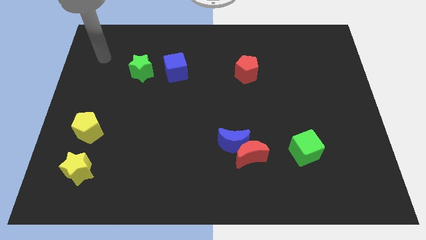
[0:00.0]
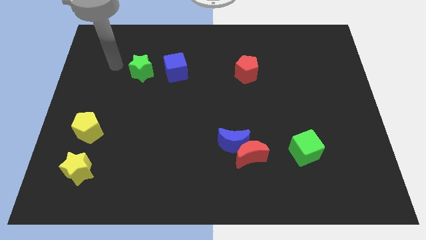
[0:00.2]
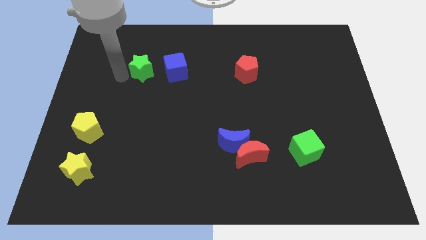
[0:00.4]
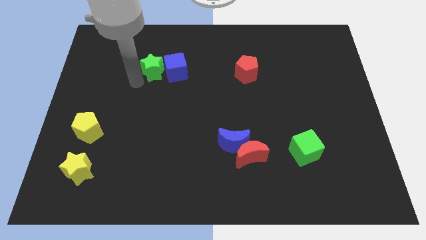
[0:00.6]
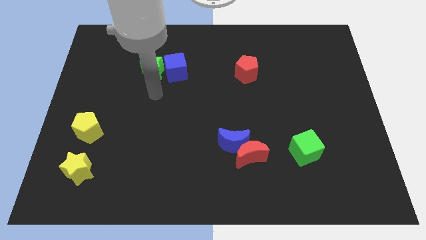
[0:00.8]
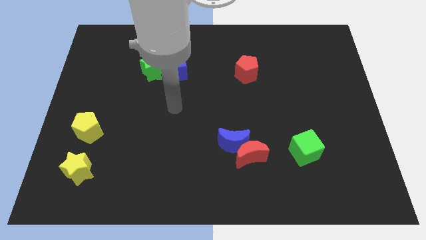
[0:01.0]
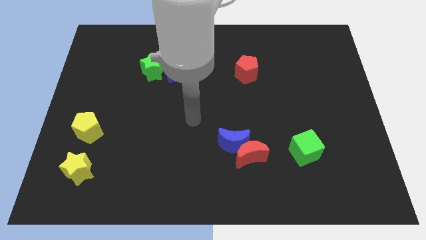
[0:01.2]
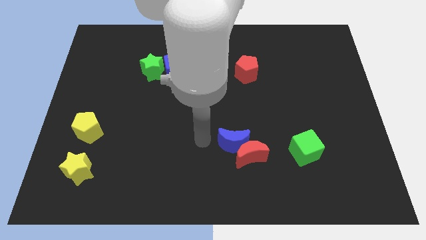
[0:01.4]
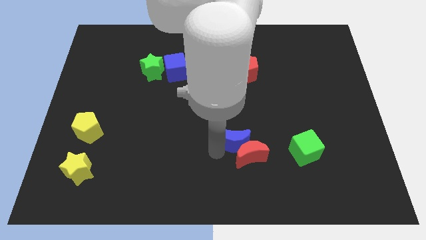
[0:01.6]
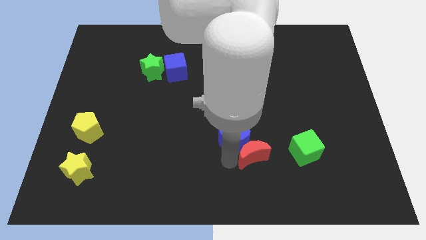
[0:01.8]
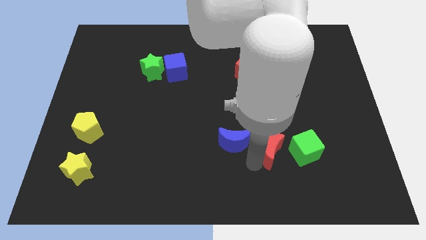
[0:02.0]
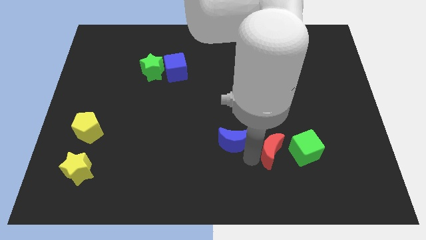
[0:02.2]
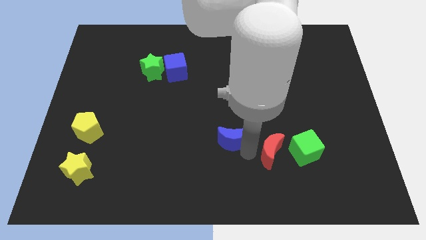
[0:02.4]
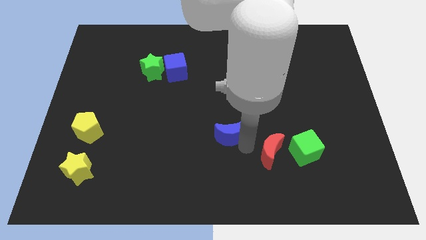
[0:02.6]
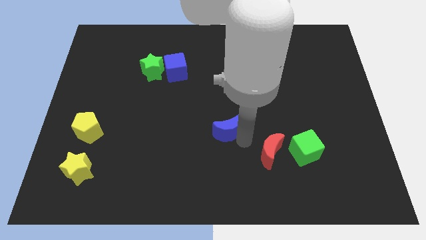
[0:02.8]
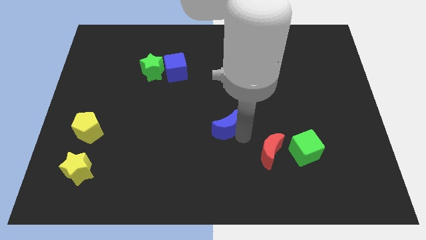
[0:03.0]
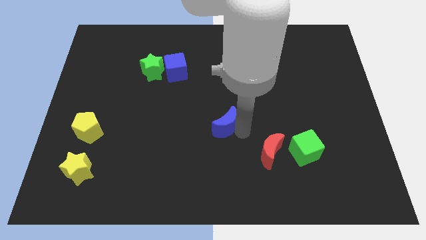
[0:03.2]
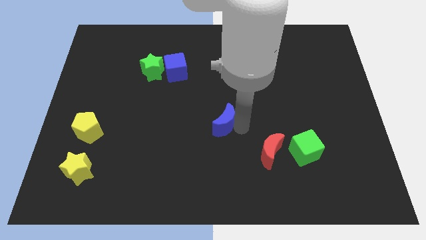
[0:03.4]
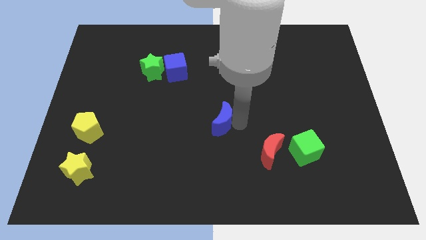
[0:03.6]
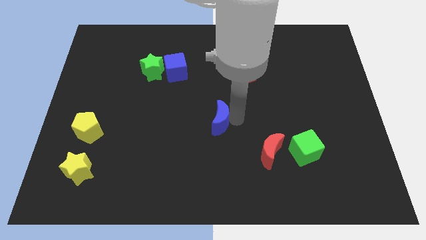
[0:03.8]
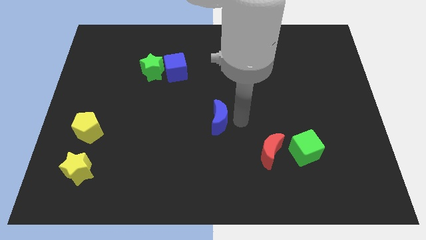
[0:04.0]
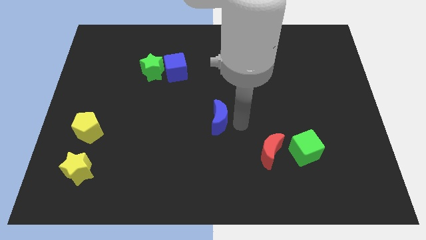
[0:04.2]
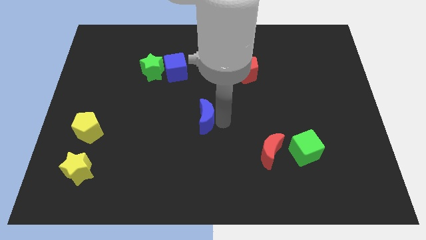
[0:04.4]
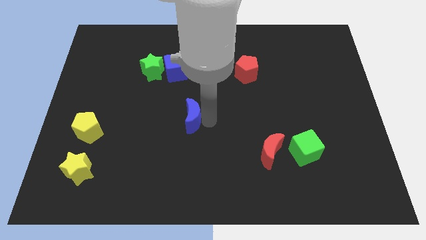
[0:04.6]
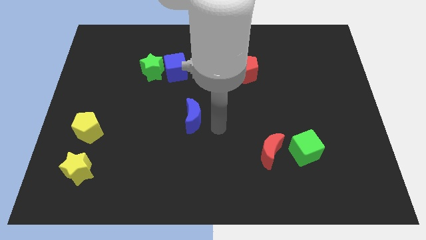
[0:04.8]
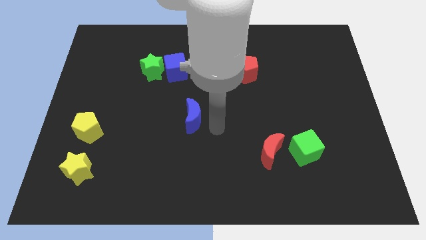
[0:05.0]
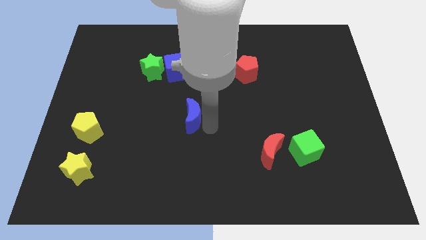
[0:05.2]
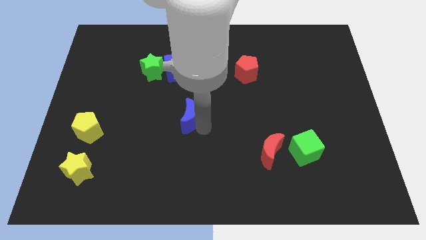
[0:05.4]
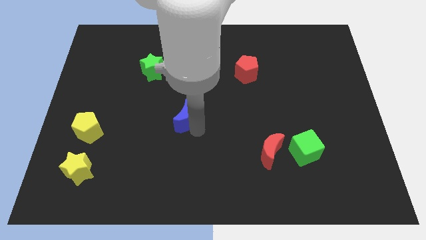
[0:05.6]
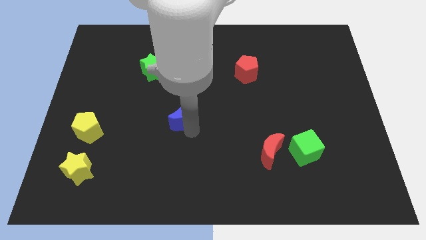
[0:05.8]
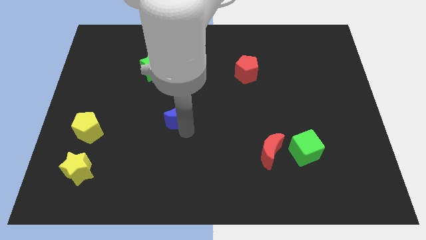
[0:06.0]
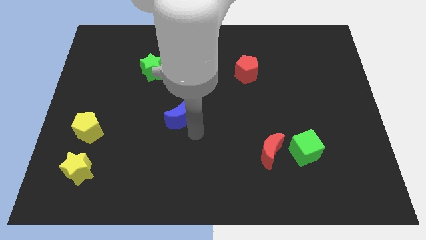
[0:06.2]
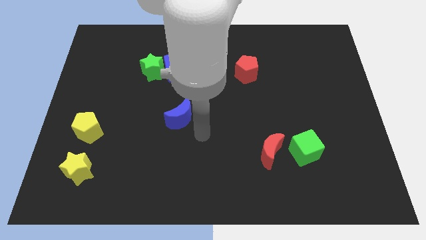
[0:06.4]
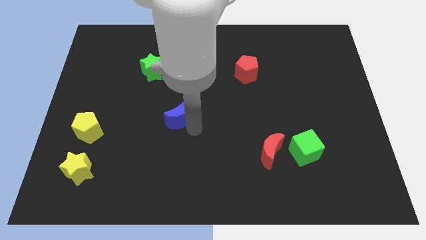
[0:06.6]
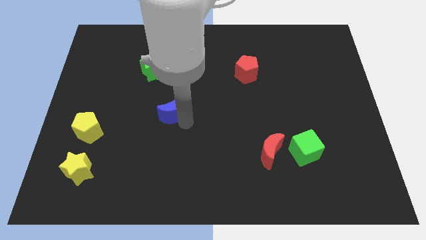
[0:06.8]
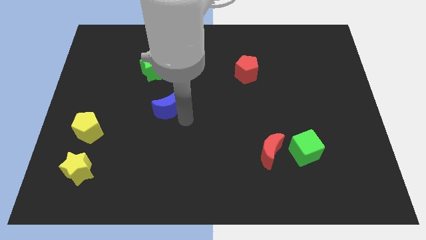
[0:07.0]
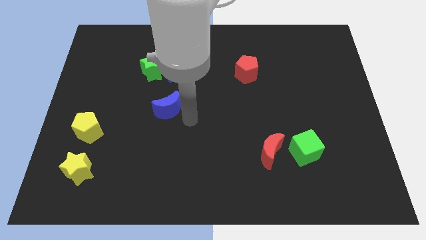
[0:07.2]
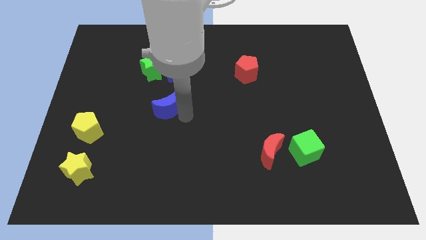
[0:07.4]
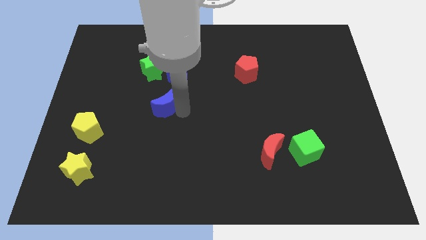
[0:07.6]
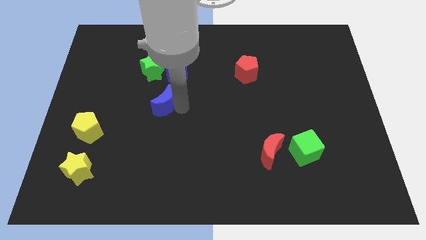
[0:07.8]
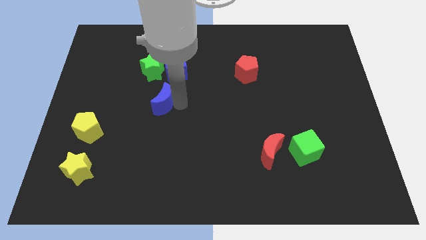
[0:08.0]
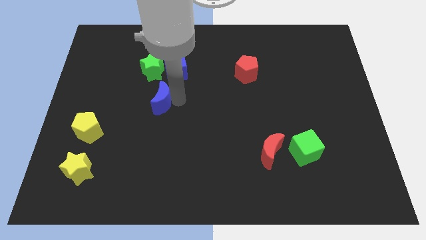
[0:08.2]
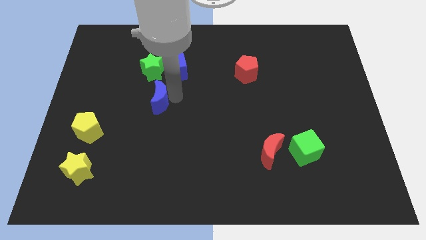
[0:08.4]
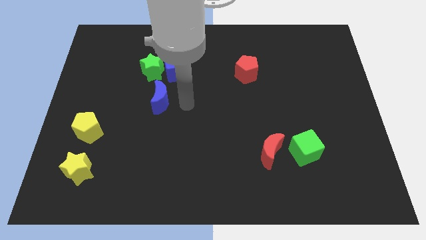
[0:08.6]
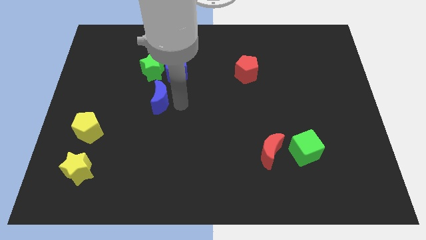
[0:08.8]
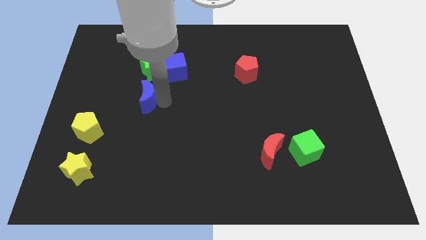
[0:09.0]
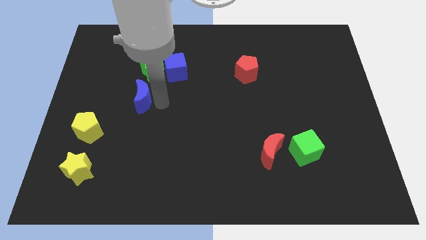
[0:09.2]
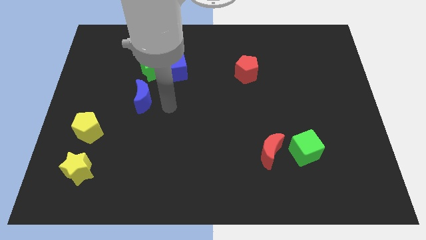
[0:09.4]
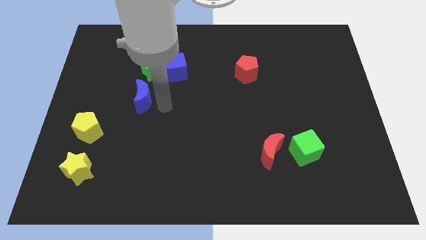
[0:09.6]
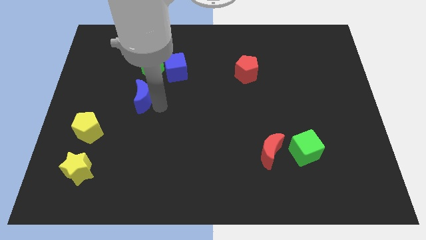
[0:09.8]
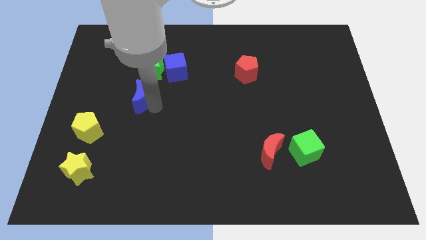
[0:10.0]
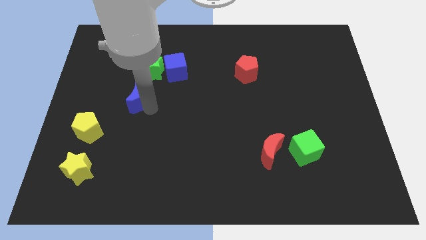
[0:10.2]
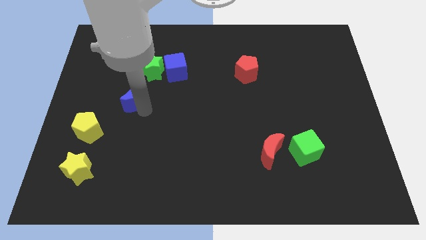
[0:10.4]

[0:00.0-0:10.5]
move the blue moon to the bottom left side of the green star

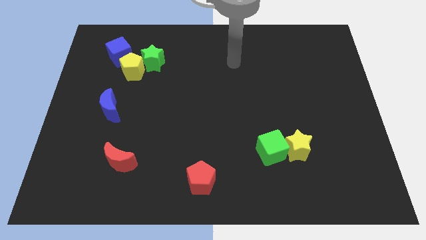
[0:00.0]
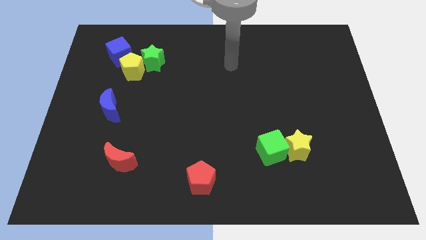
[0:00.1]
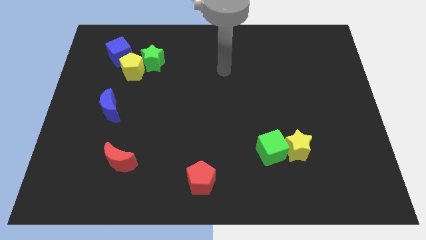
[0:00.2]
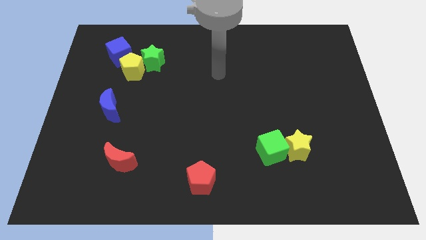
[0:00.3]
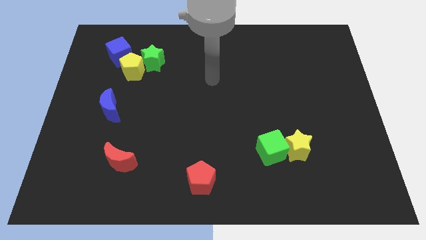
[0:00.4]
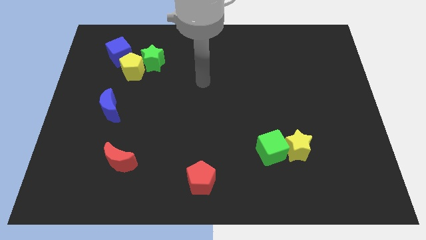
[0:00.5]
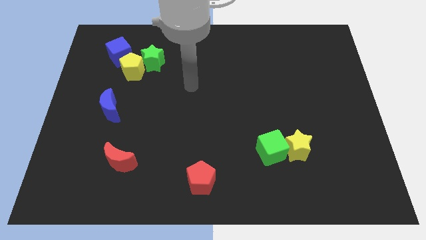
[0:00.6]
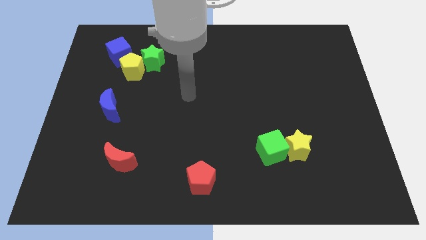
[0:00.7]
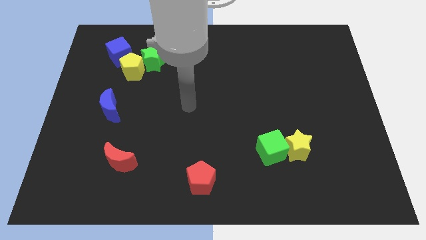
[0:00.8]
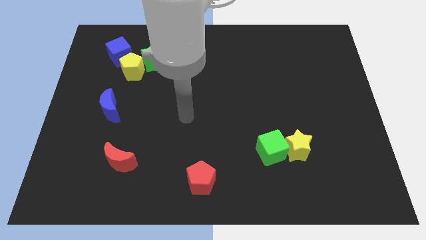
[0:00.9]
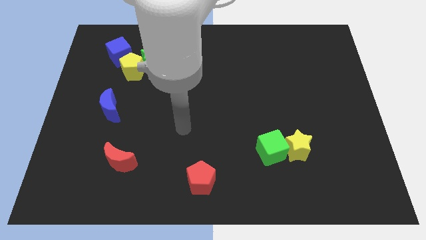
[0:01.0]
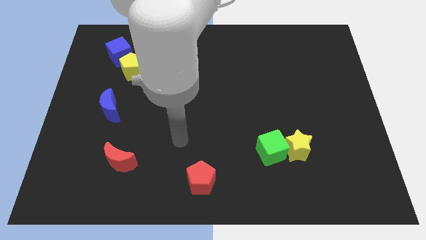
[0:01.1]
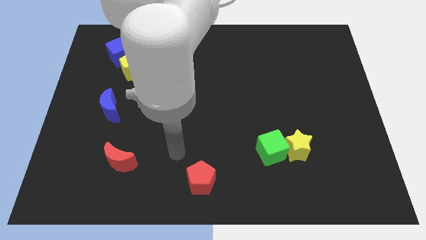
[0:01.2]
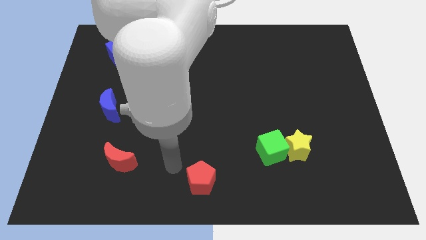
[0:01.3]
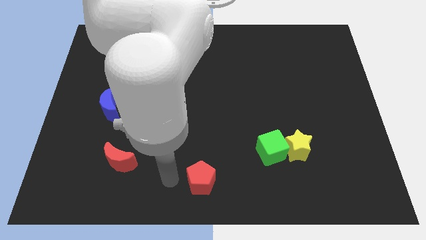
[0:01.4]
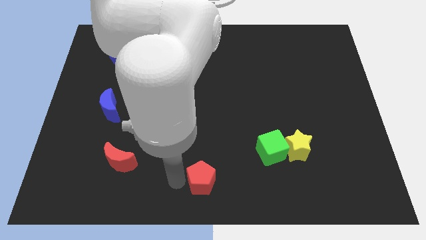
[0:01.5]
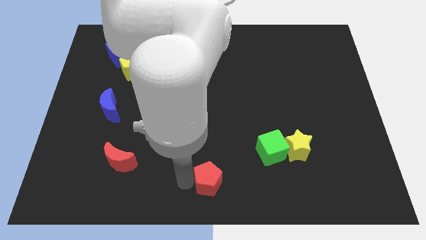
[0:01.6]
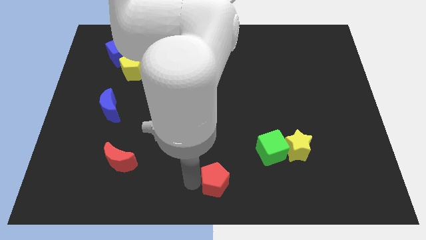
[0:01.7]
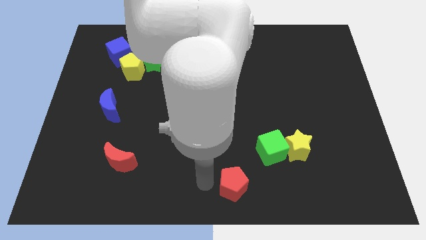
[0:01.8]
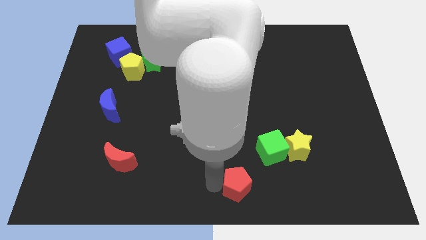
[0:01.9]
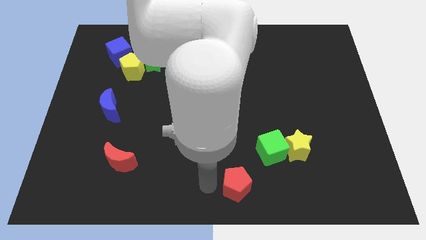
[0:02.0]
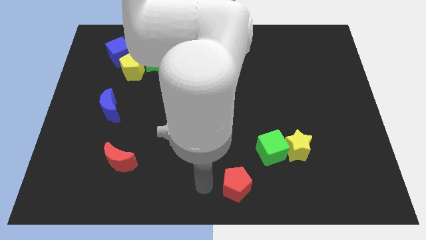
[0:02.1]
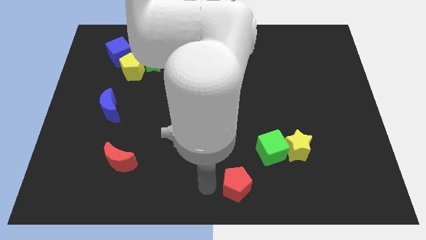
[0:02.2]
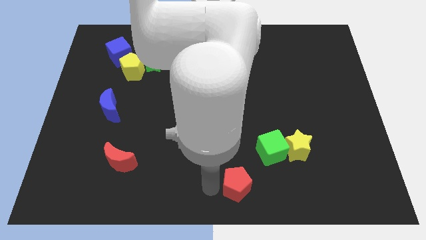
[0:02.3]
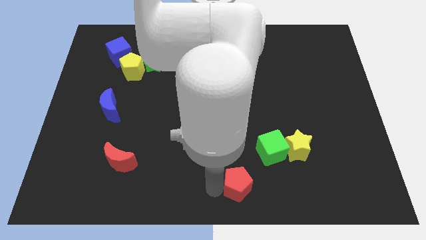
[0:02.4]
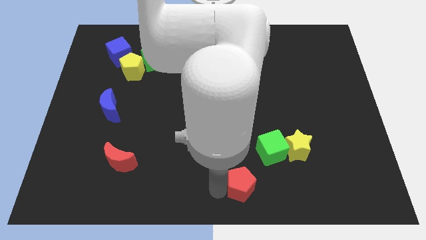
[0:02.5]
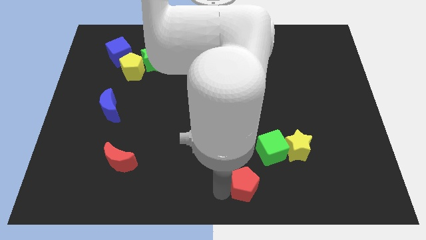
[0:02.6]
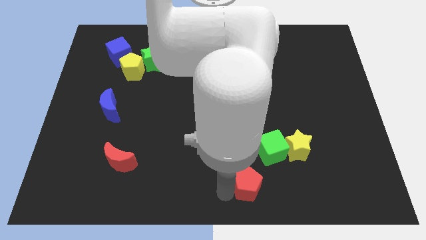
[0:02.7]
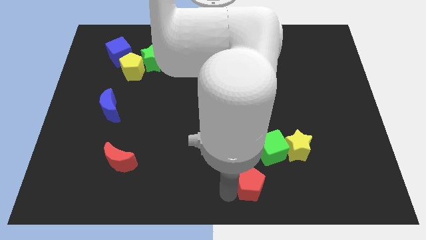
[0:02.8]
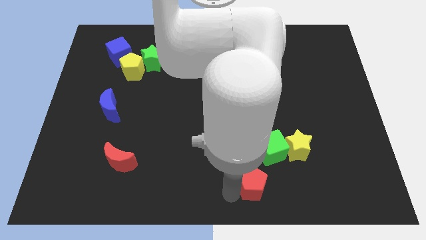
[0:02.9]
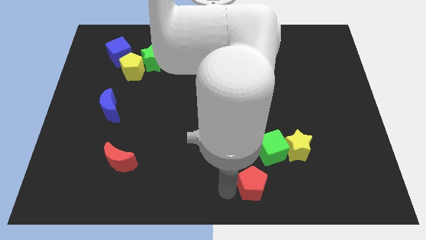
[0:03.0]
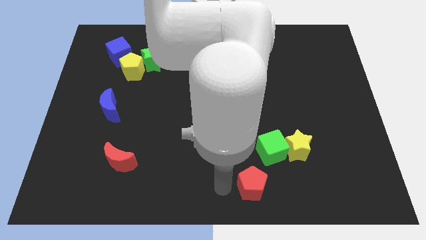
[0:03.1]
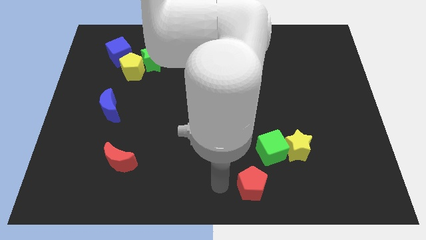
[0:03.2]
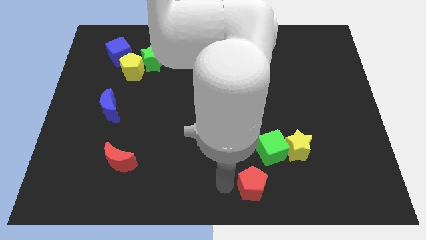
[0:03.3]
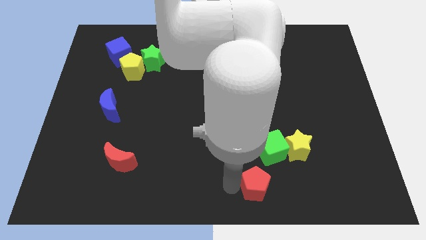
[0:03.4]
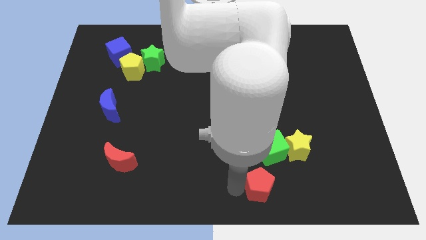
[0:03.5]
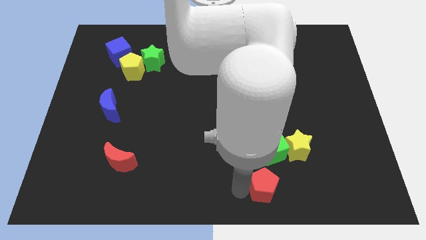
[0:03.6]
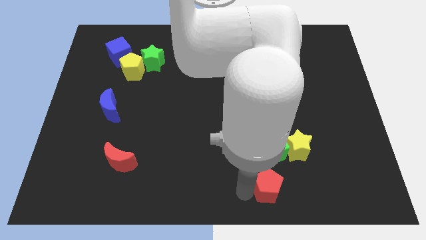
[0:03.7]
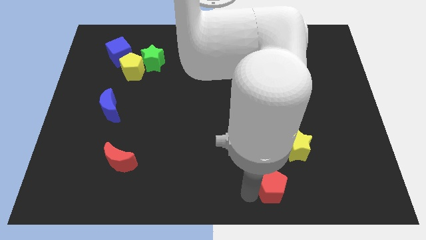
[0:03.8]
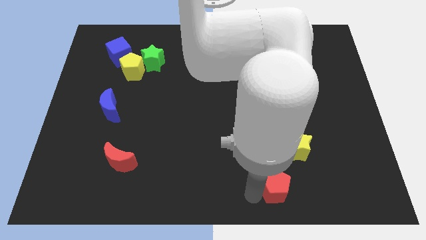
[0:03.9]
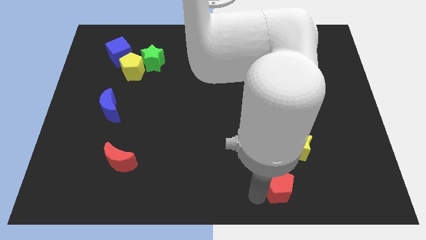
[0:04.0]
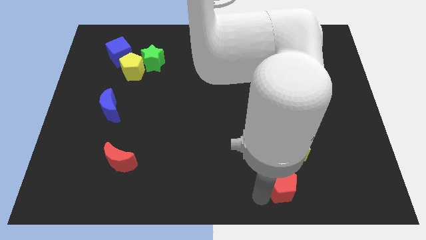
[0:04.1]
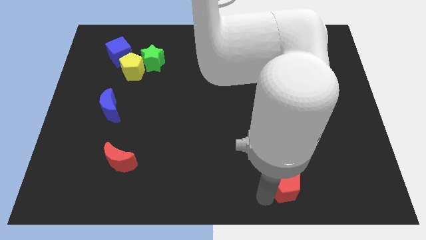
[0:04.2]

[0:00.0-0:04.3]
push the red pentagon to the bottom right of the green cube
